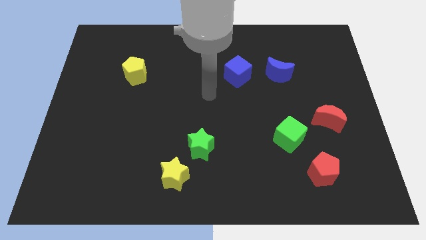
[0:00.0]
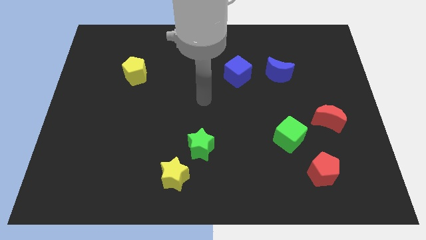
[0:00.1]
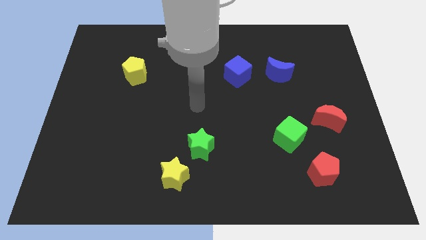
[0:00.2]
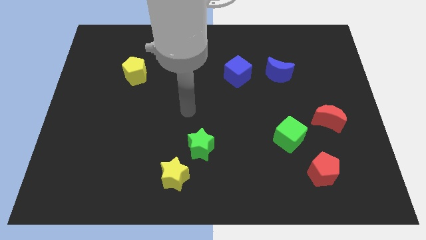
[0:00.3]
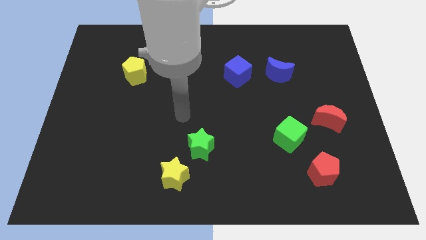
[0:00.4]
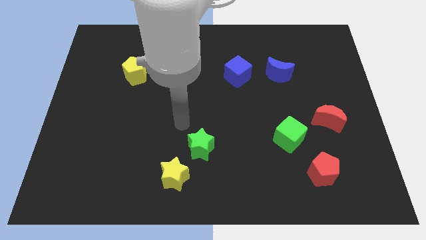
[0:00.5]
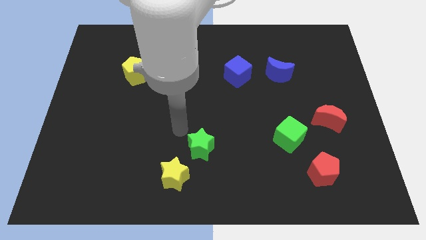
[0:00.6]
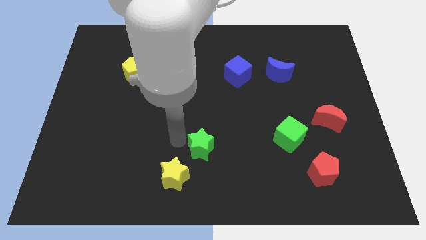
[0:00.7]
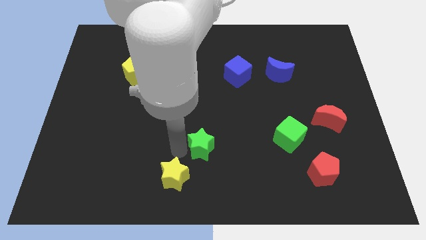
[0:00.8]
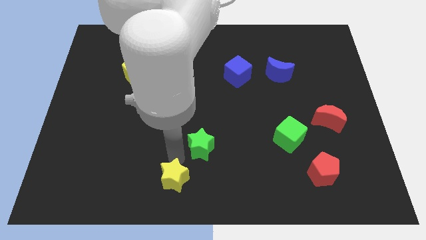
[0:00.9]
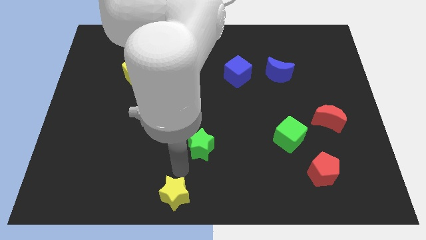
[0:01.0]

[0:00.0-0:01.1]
move the green star away from the yellow star

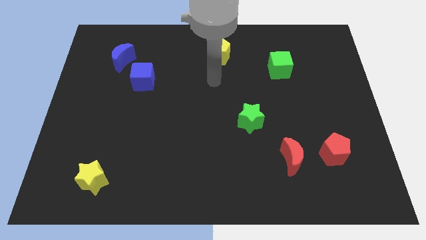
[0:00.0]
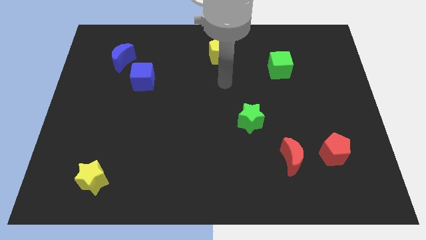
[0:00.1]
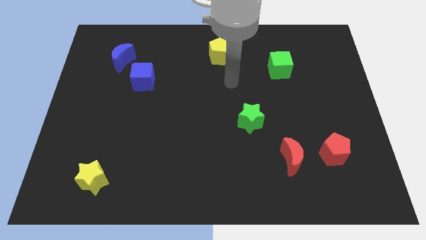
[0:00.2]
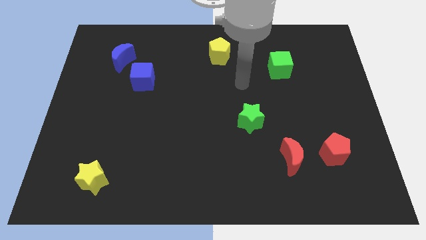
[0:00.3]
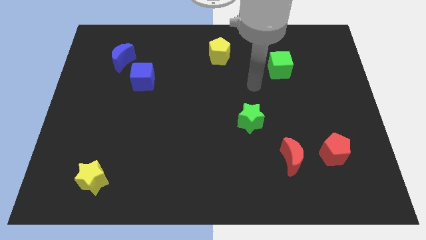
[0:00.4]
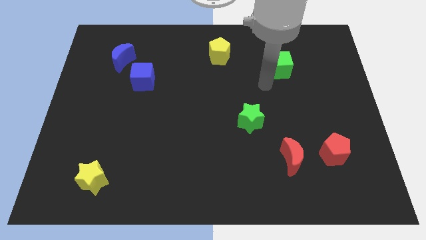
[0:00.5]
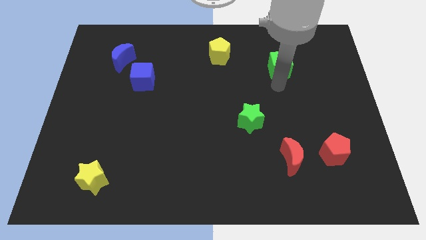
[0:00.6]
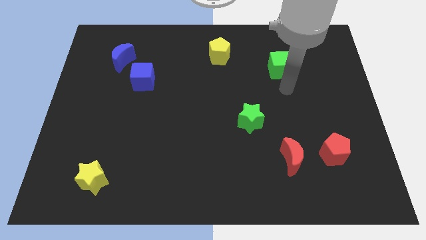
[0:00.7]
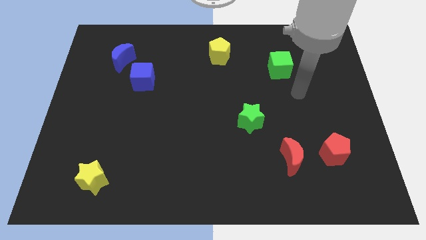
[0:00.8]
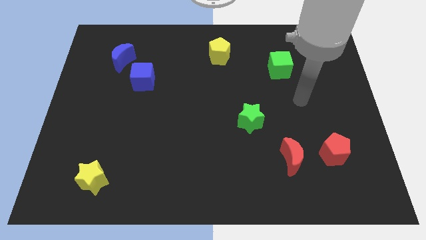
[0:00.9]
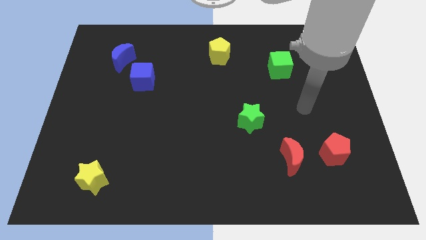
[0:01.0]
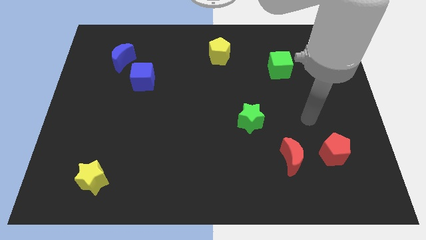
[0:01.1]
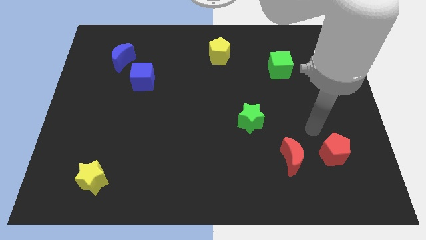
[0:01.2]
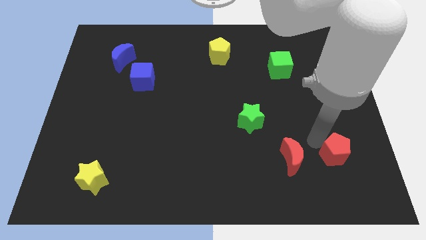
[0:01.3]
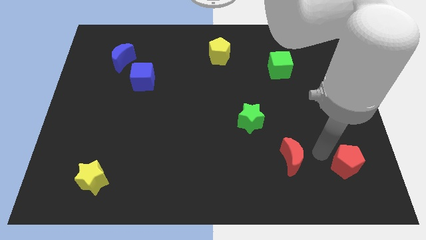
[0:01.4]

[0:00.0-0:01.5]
move the red moon away from the red pentagon

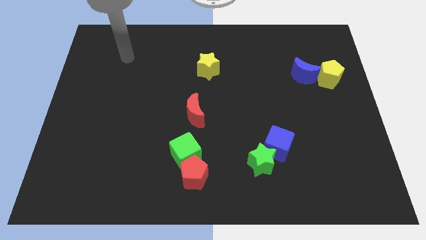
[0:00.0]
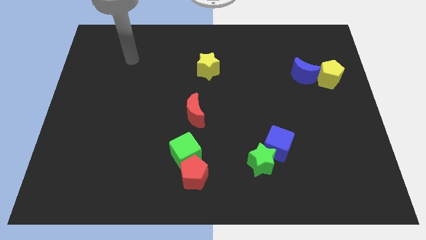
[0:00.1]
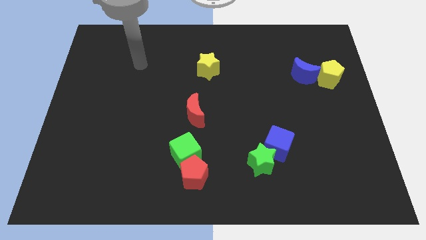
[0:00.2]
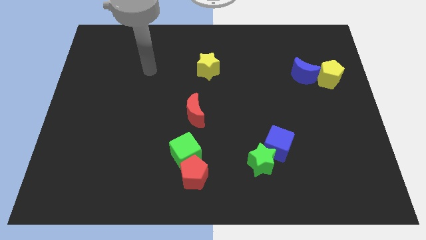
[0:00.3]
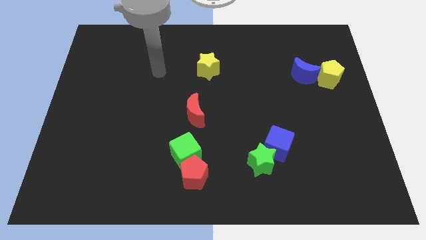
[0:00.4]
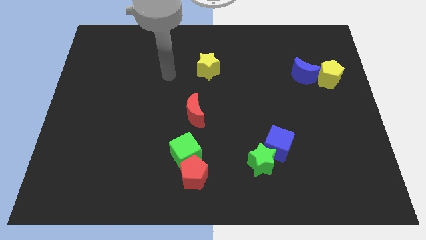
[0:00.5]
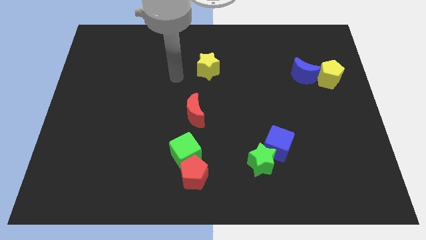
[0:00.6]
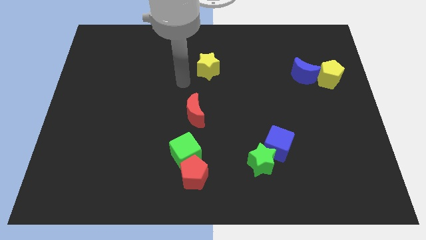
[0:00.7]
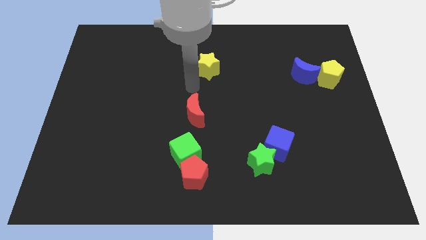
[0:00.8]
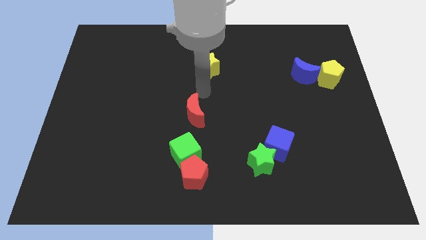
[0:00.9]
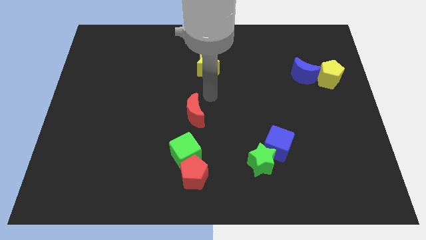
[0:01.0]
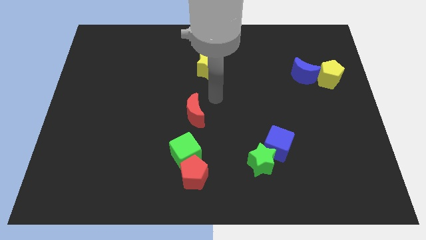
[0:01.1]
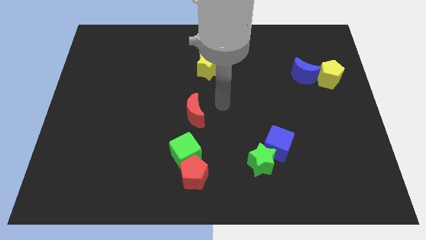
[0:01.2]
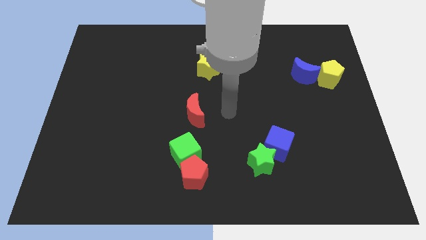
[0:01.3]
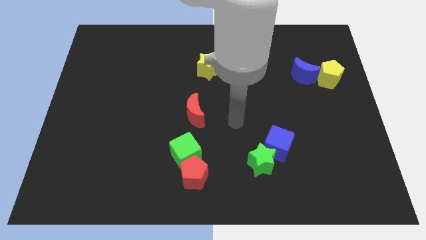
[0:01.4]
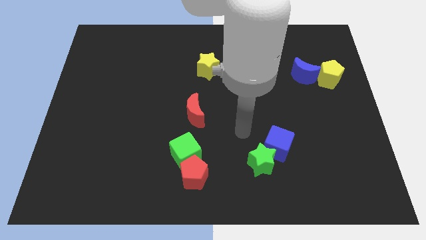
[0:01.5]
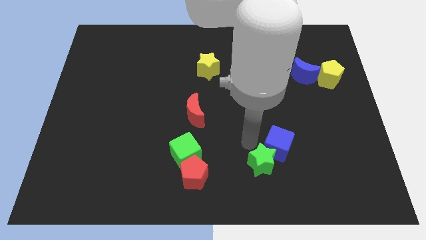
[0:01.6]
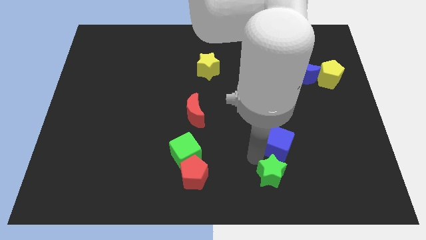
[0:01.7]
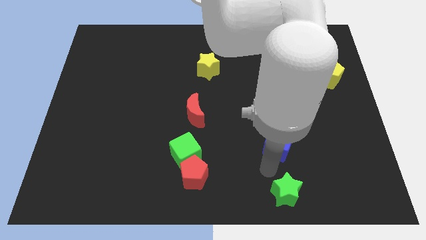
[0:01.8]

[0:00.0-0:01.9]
move the blue cube away from the green star

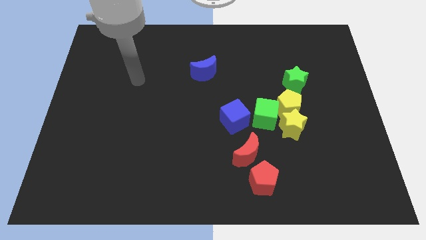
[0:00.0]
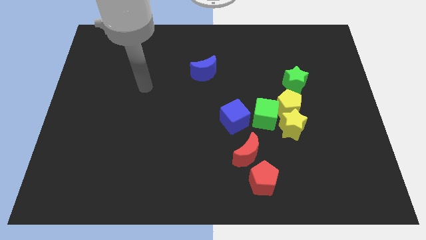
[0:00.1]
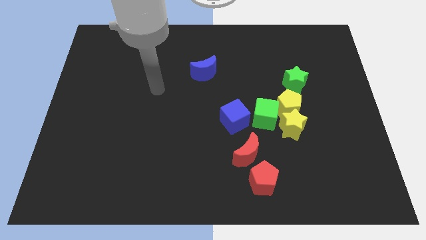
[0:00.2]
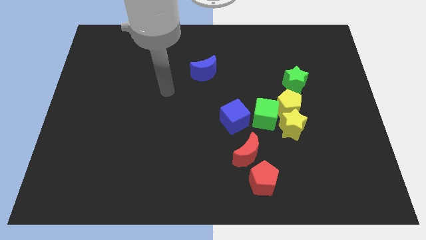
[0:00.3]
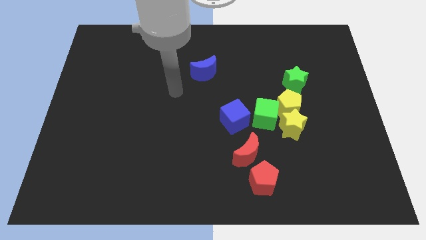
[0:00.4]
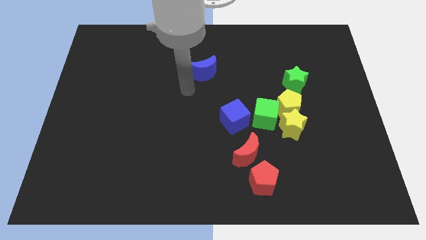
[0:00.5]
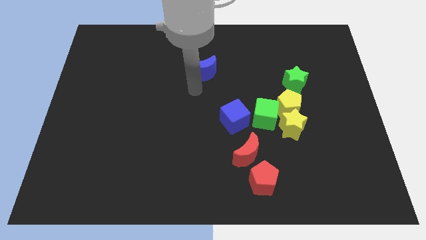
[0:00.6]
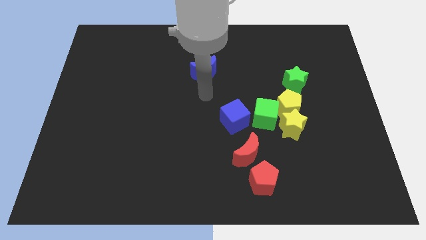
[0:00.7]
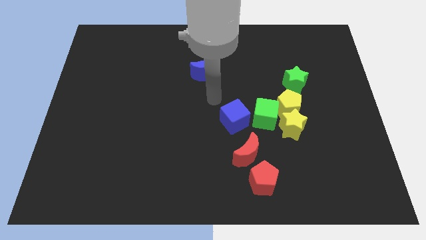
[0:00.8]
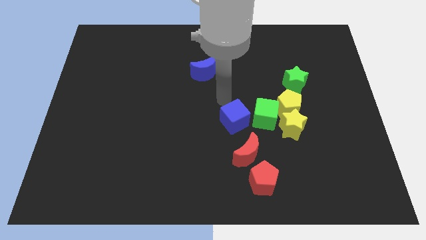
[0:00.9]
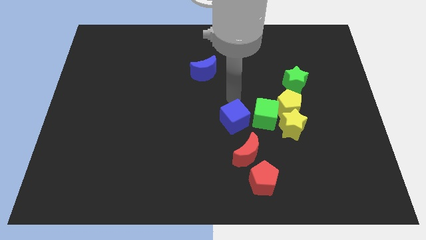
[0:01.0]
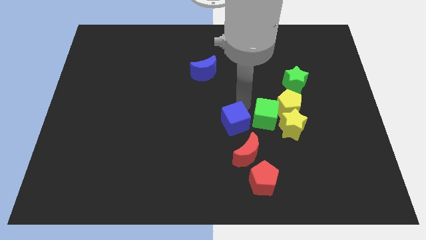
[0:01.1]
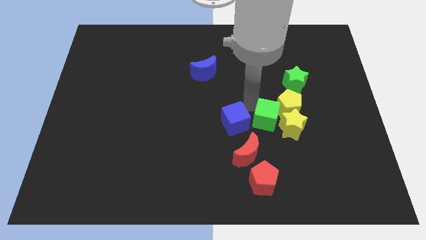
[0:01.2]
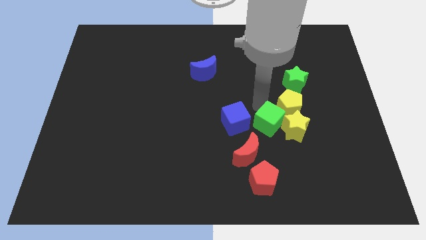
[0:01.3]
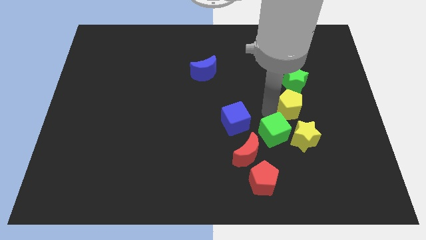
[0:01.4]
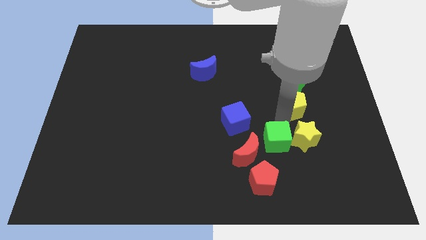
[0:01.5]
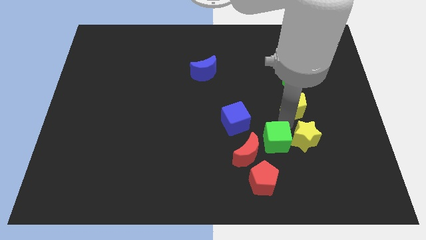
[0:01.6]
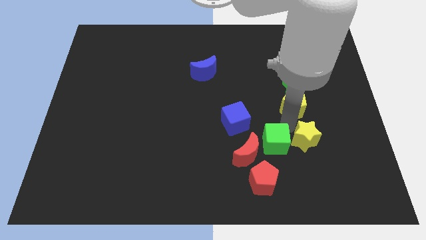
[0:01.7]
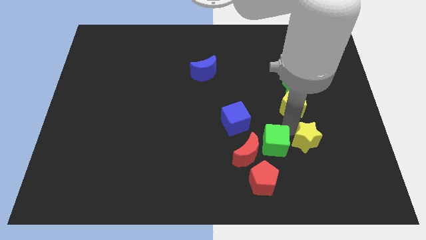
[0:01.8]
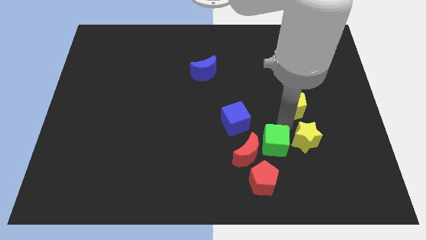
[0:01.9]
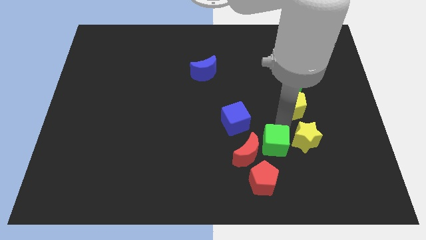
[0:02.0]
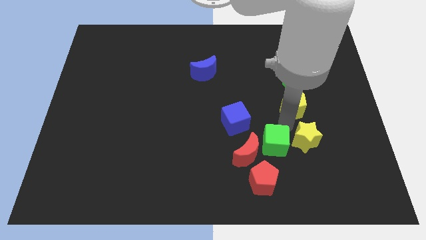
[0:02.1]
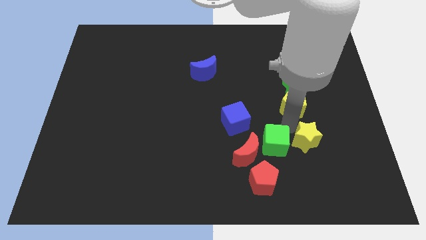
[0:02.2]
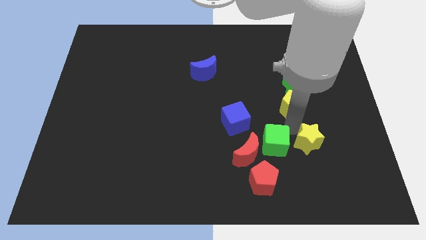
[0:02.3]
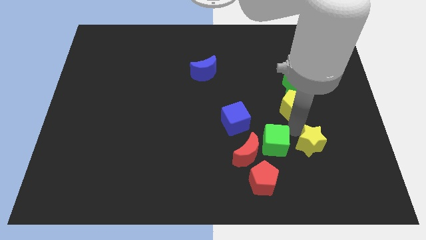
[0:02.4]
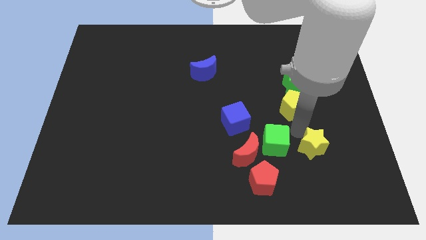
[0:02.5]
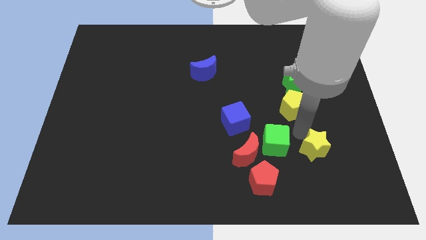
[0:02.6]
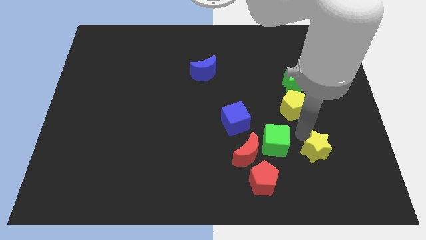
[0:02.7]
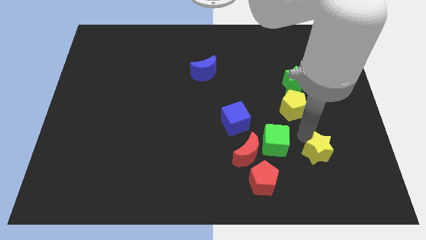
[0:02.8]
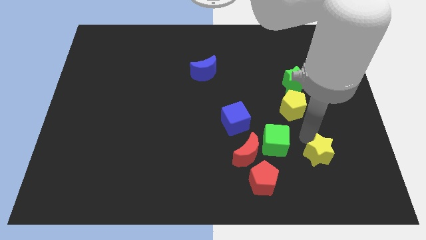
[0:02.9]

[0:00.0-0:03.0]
move the yellow star away from the yellow pentagon and green cube

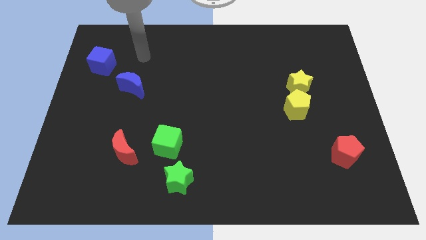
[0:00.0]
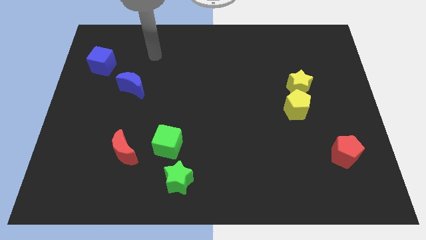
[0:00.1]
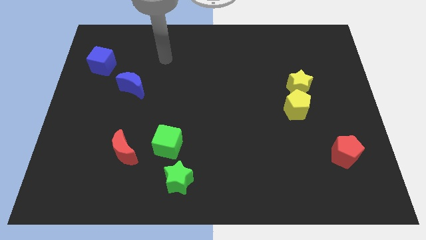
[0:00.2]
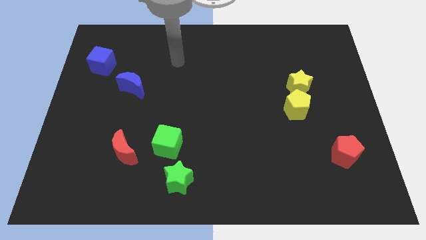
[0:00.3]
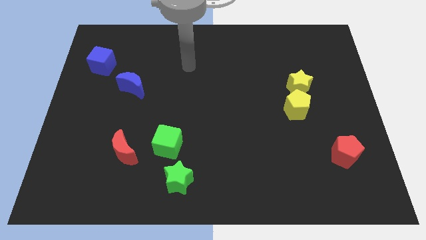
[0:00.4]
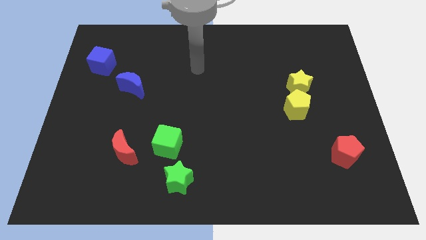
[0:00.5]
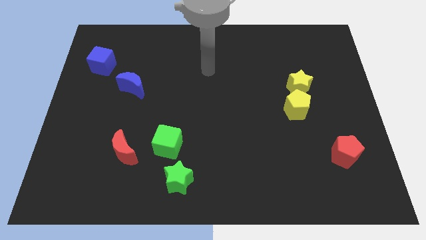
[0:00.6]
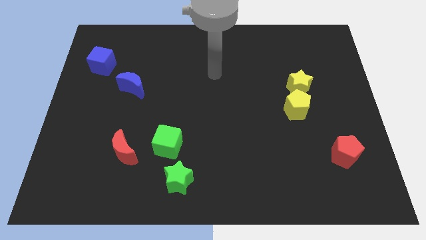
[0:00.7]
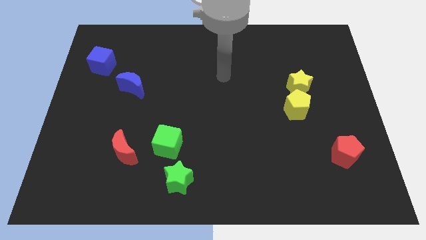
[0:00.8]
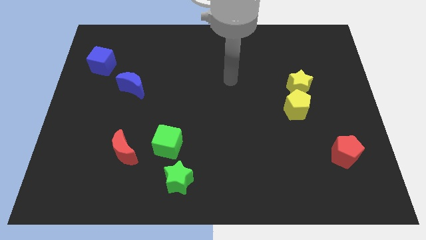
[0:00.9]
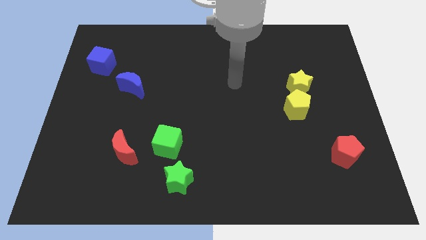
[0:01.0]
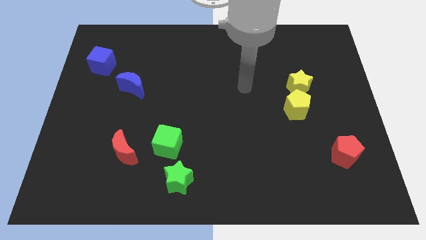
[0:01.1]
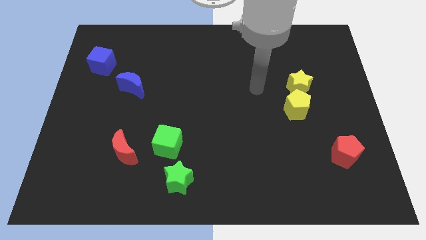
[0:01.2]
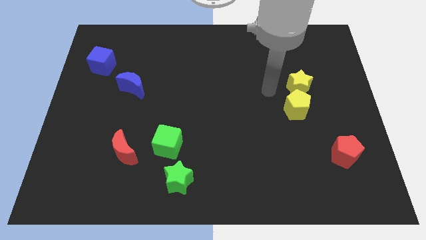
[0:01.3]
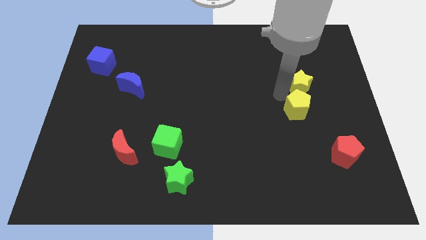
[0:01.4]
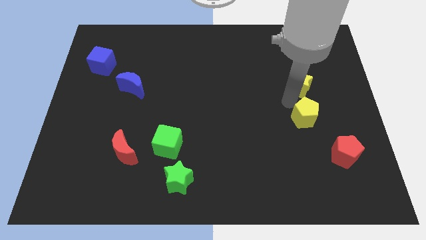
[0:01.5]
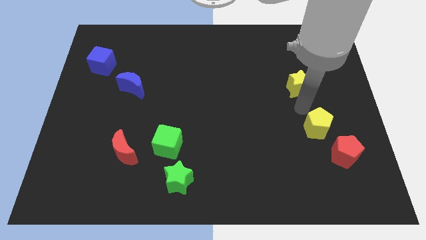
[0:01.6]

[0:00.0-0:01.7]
move the yellow star away from the yellow pentagon

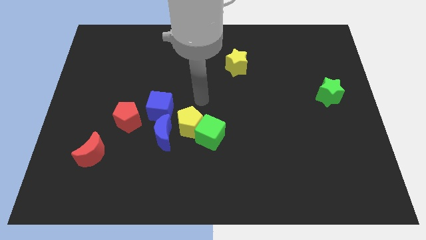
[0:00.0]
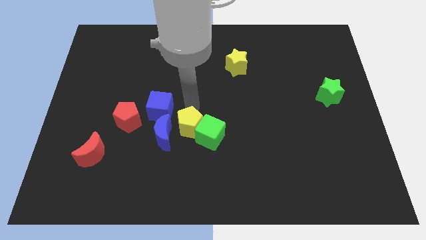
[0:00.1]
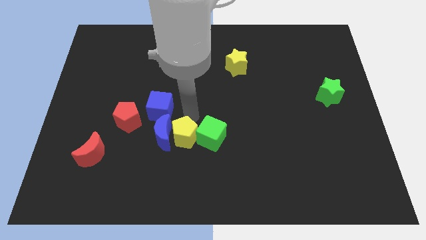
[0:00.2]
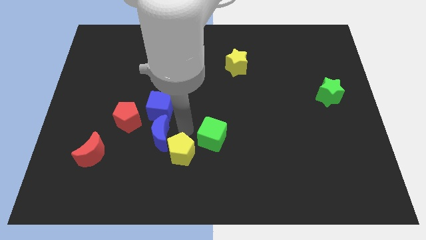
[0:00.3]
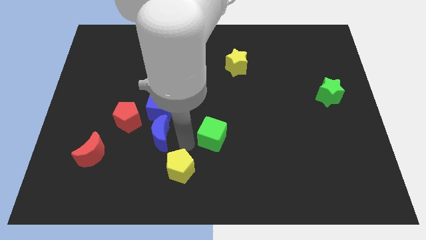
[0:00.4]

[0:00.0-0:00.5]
move the green cube away from the yellow pentagon
